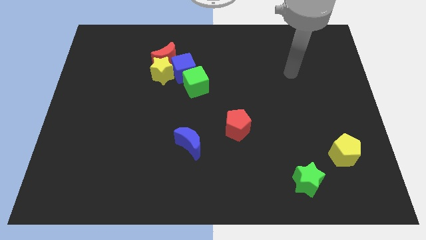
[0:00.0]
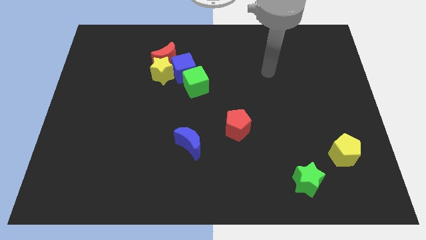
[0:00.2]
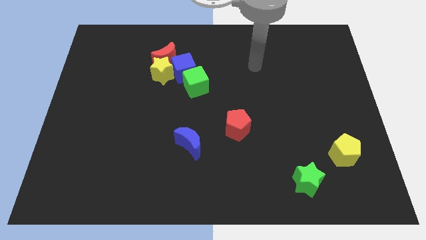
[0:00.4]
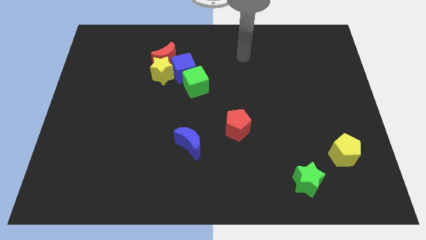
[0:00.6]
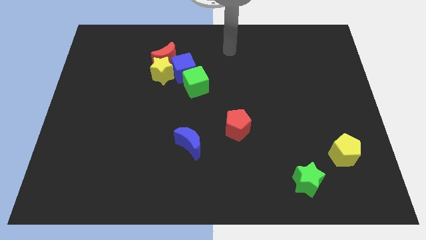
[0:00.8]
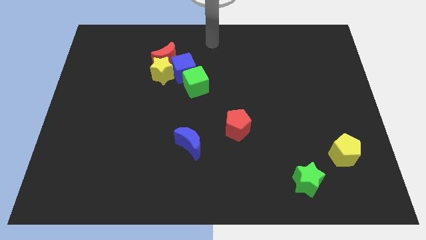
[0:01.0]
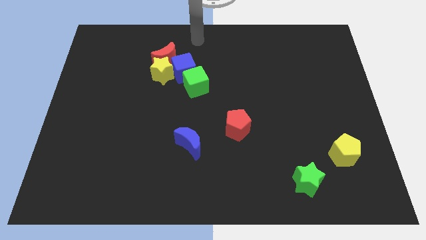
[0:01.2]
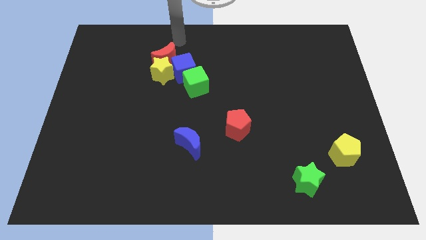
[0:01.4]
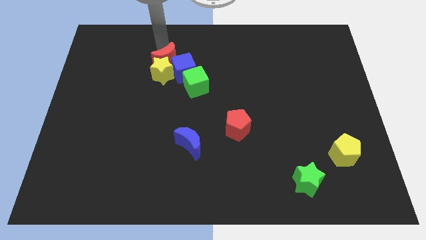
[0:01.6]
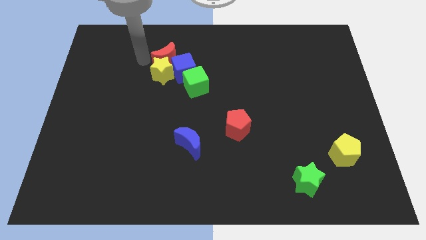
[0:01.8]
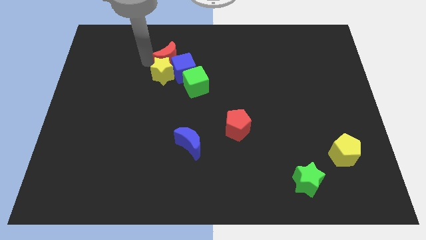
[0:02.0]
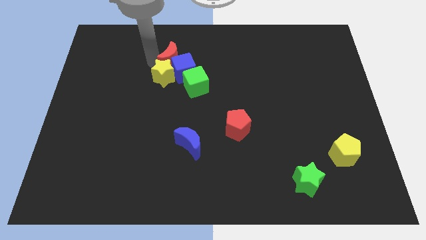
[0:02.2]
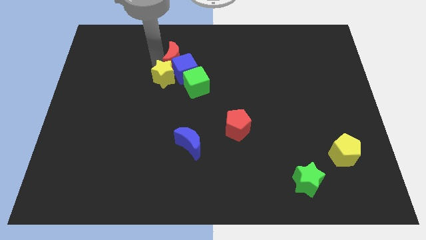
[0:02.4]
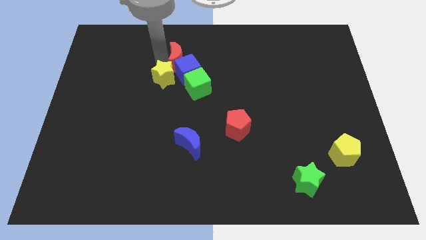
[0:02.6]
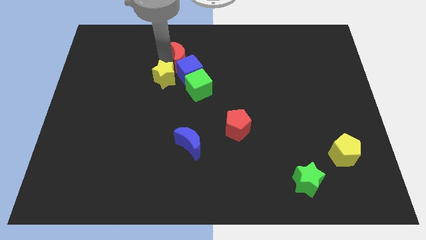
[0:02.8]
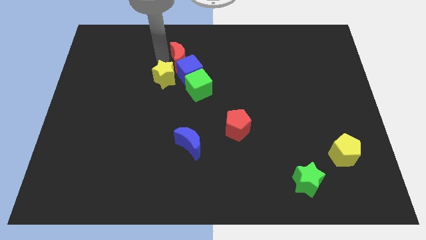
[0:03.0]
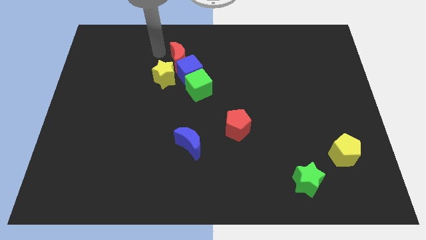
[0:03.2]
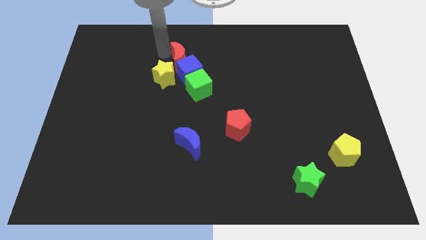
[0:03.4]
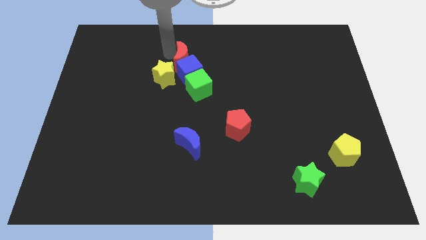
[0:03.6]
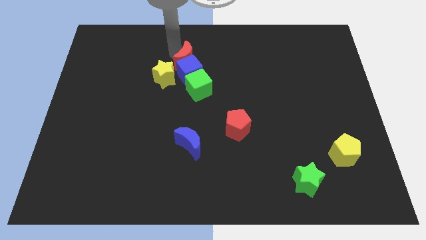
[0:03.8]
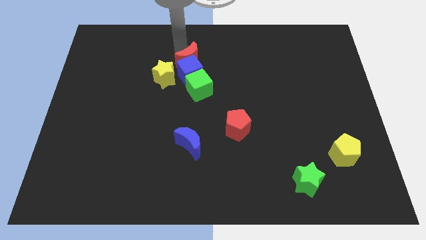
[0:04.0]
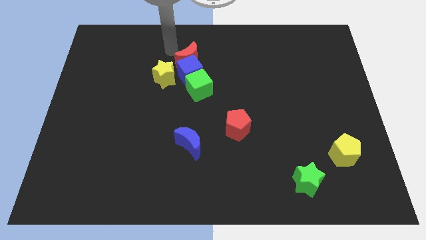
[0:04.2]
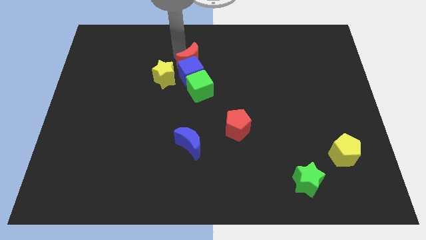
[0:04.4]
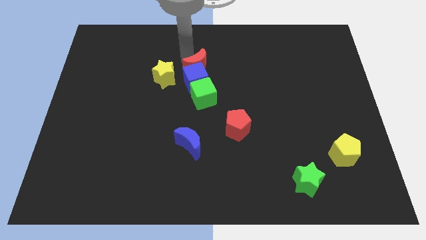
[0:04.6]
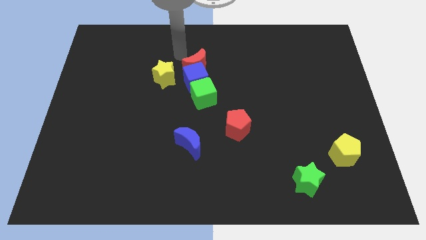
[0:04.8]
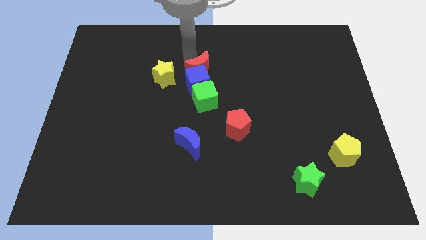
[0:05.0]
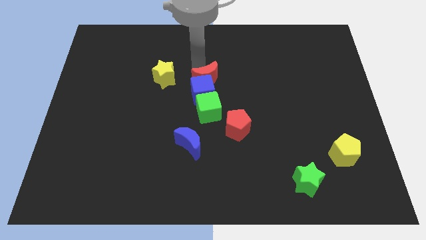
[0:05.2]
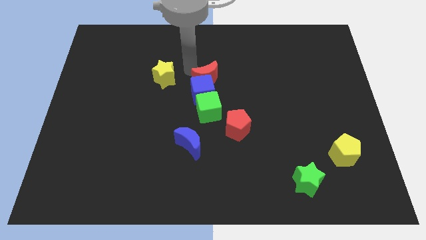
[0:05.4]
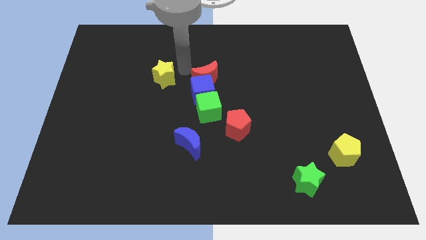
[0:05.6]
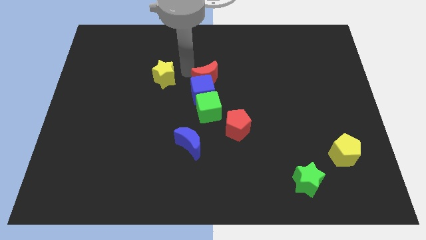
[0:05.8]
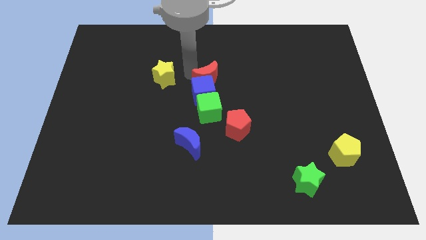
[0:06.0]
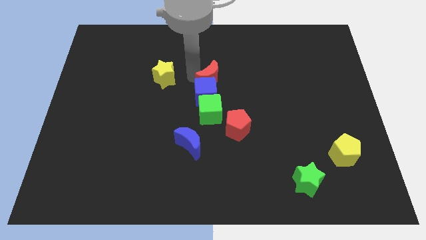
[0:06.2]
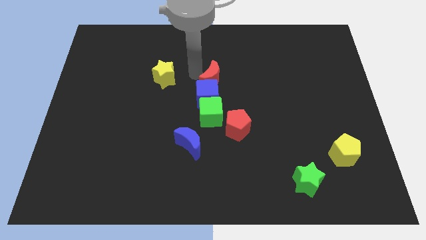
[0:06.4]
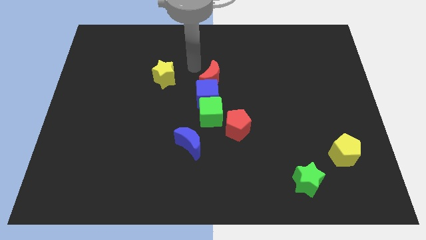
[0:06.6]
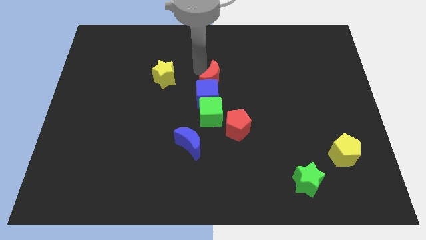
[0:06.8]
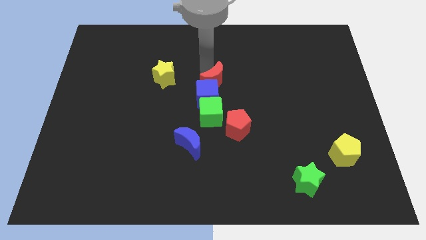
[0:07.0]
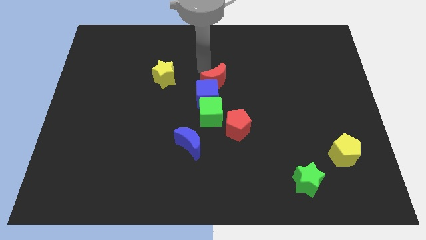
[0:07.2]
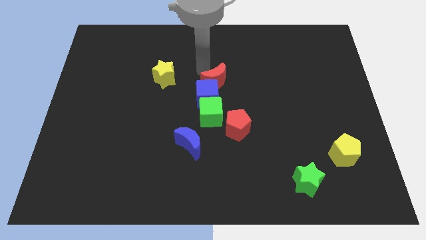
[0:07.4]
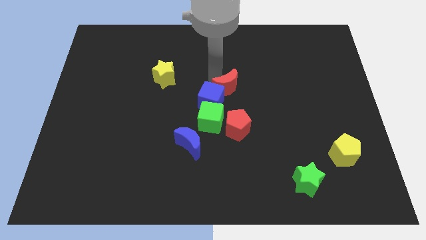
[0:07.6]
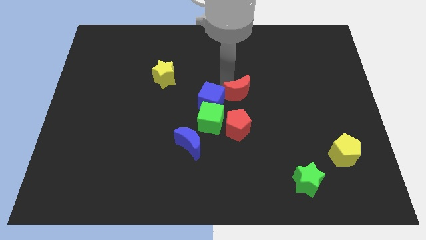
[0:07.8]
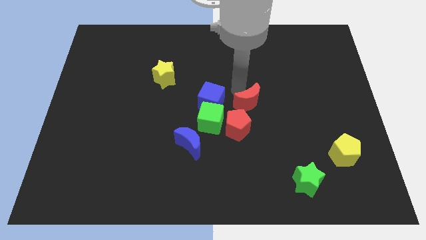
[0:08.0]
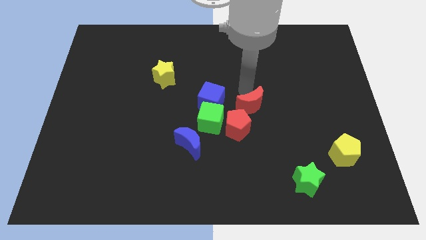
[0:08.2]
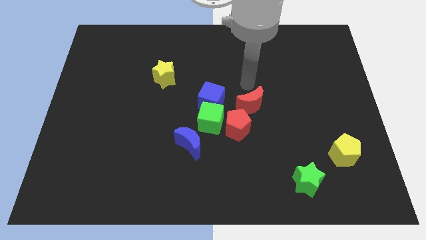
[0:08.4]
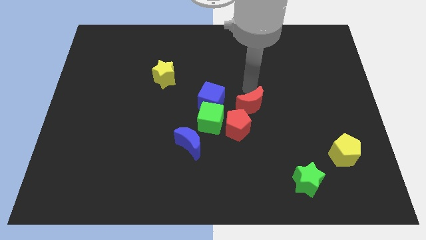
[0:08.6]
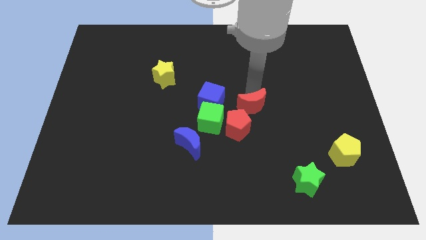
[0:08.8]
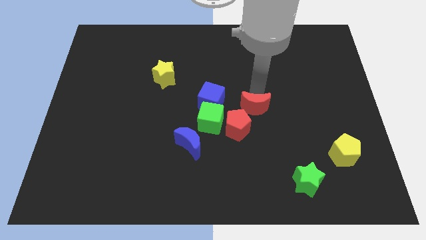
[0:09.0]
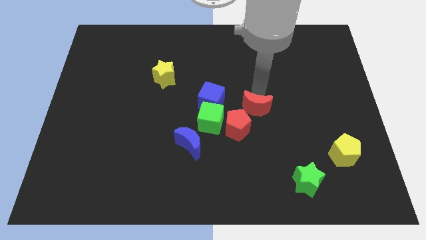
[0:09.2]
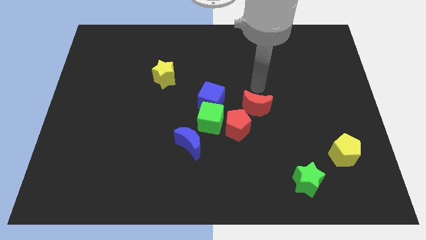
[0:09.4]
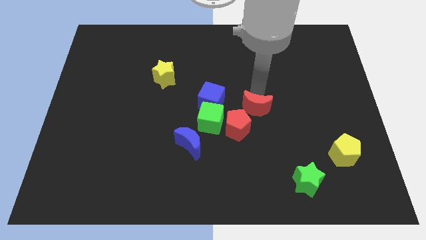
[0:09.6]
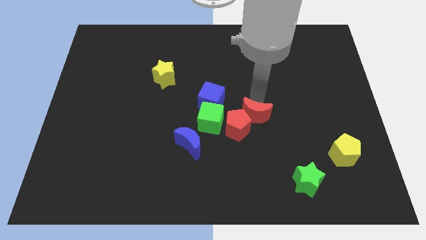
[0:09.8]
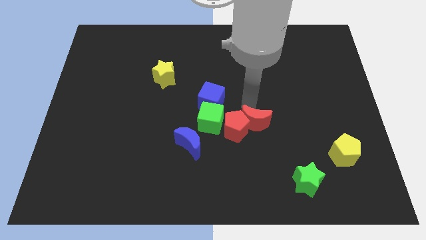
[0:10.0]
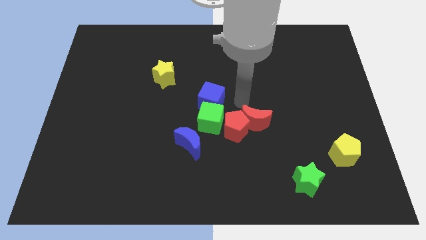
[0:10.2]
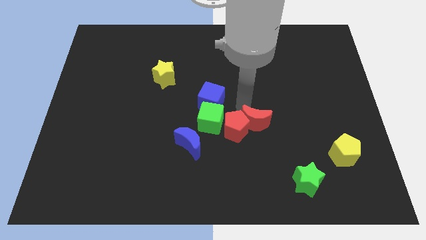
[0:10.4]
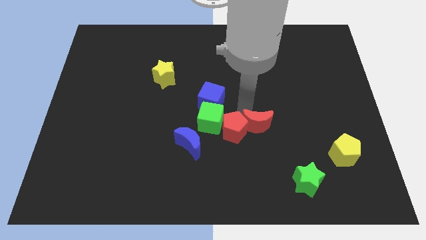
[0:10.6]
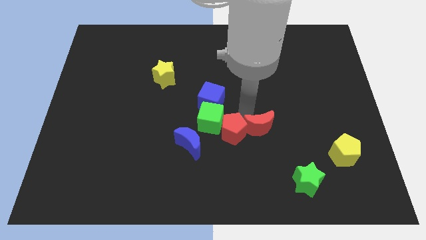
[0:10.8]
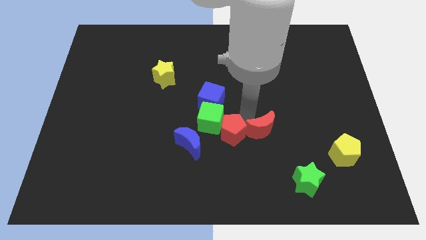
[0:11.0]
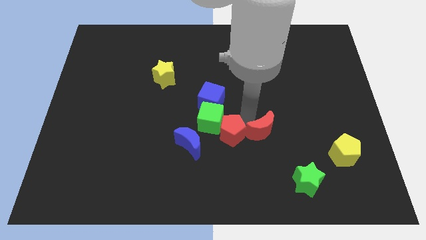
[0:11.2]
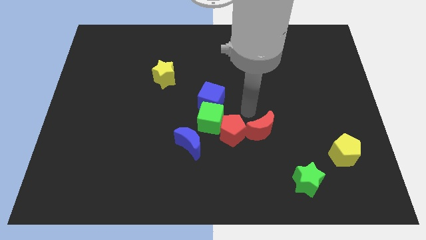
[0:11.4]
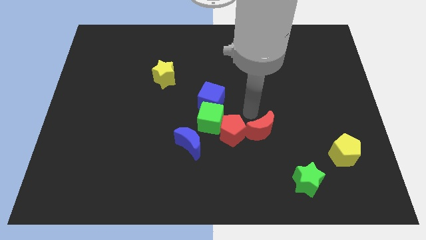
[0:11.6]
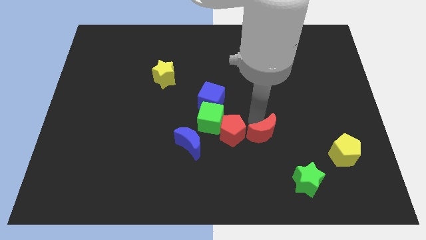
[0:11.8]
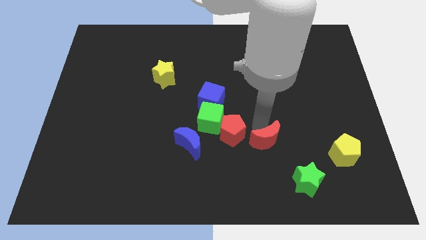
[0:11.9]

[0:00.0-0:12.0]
move the red moon to the top left of the green star

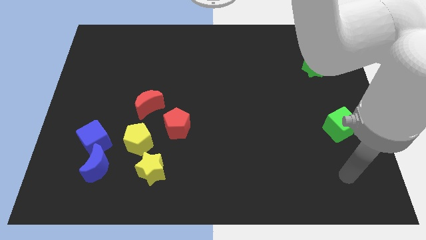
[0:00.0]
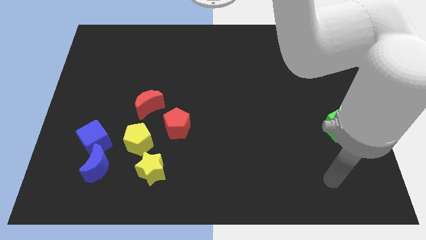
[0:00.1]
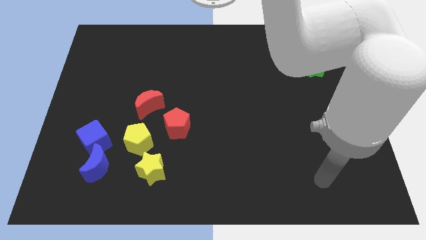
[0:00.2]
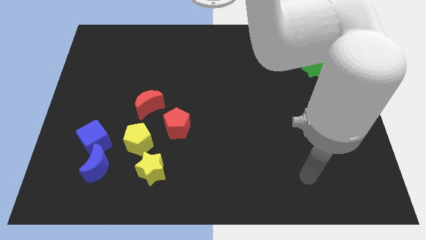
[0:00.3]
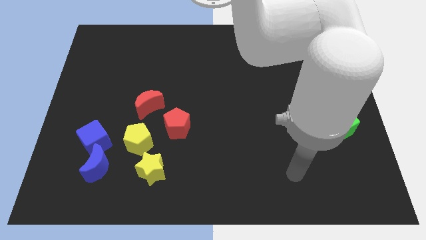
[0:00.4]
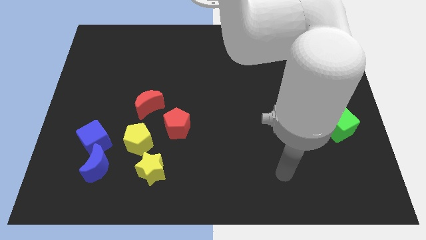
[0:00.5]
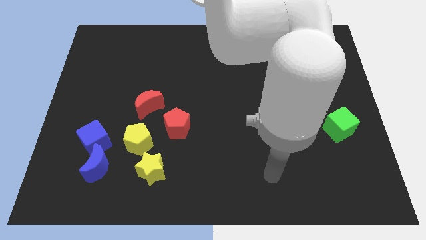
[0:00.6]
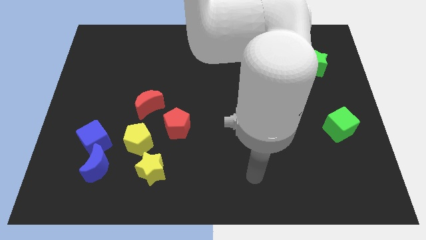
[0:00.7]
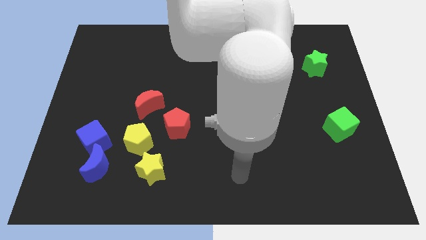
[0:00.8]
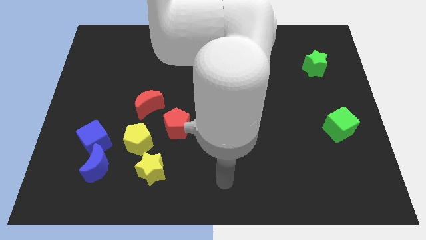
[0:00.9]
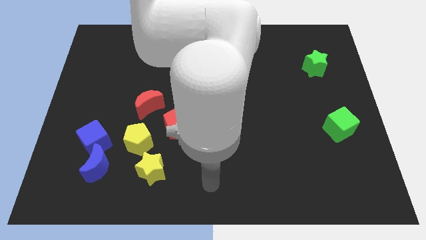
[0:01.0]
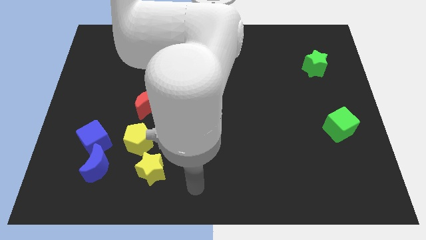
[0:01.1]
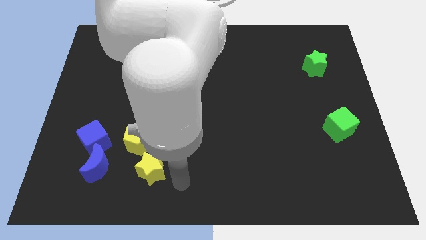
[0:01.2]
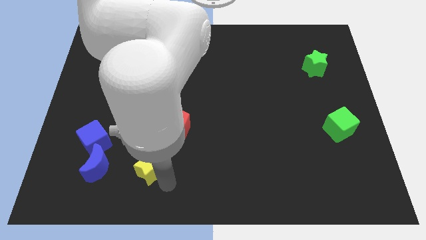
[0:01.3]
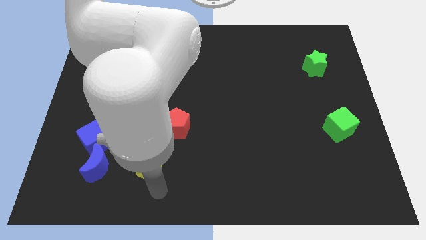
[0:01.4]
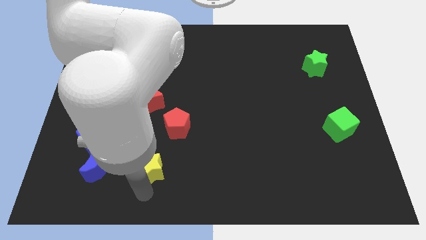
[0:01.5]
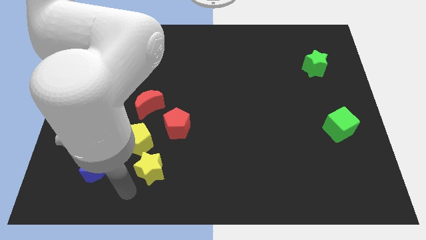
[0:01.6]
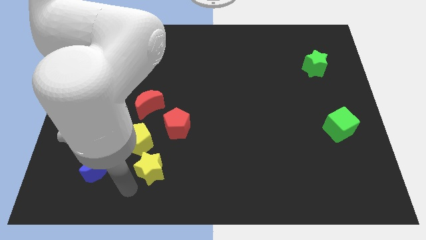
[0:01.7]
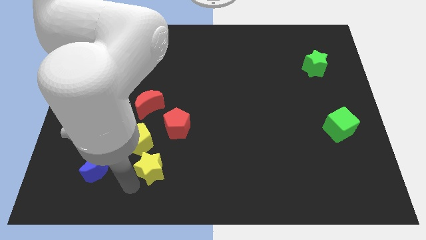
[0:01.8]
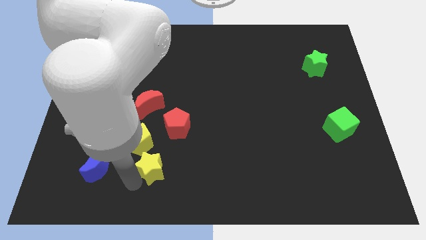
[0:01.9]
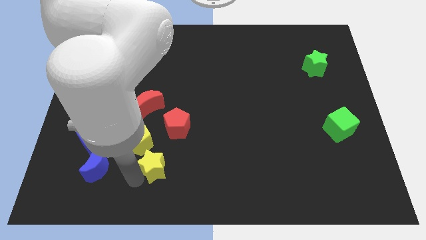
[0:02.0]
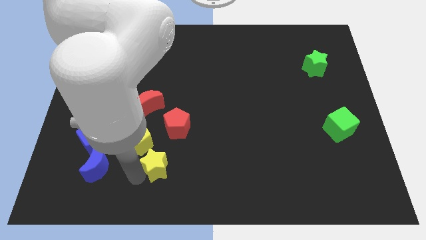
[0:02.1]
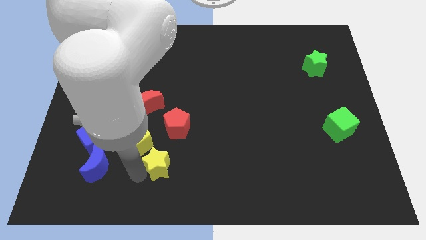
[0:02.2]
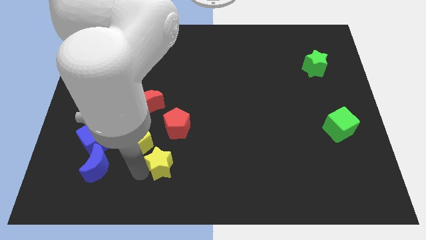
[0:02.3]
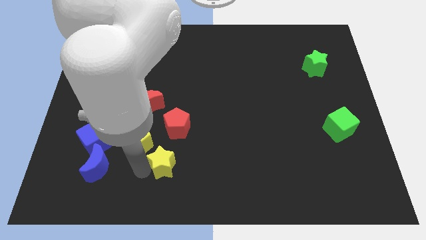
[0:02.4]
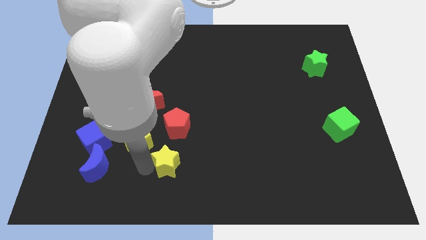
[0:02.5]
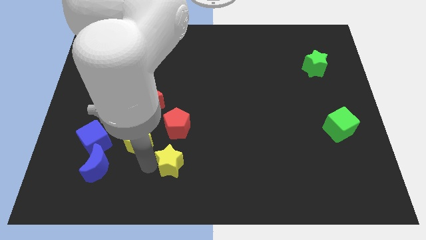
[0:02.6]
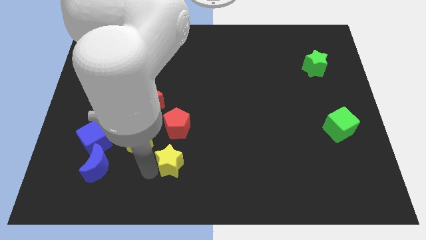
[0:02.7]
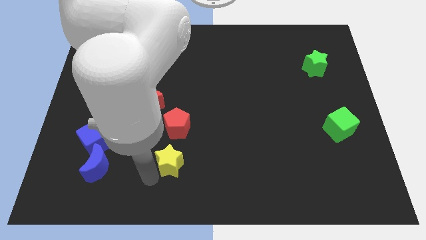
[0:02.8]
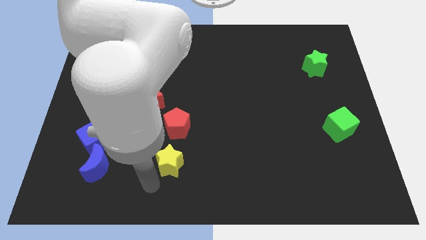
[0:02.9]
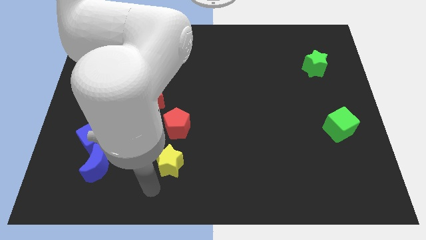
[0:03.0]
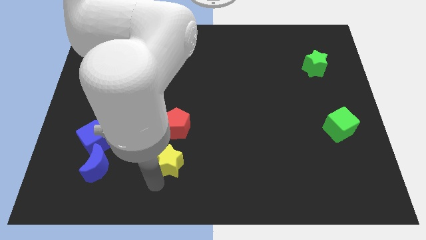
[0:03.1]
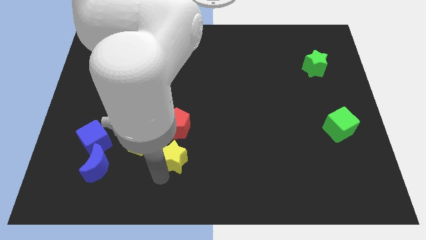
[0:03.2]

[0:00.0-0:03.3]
slide the yellow star to the right side of the yellow pentagon
